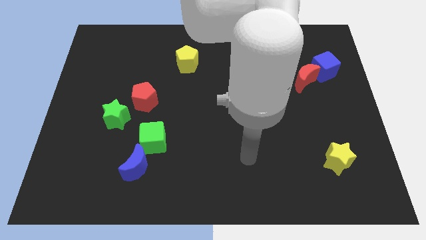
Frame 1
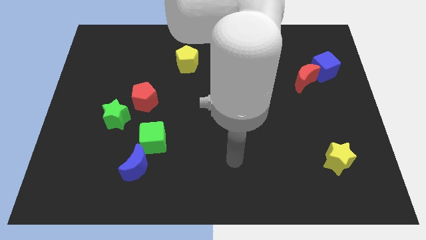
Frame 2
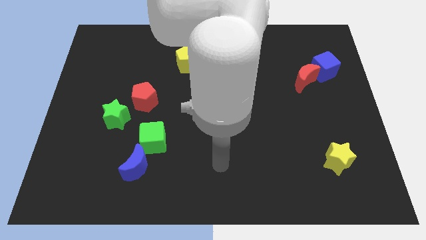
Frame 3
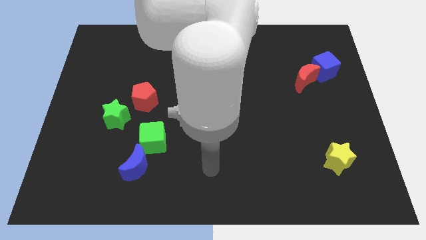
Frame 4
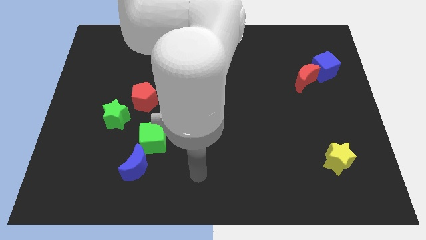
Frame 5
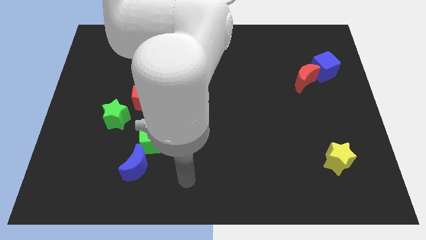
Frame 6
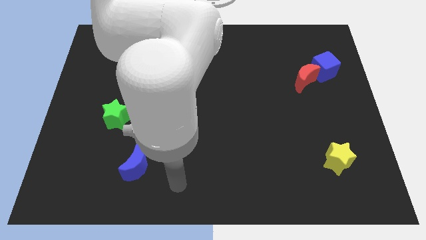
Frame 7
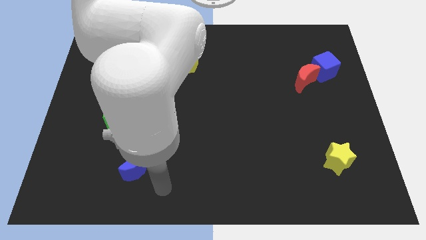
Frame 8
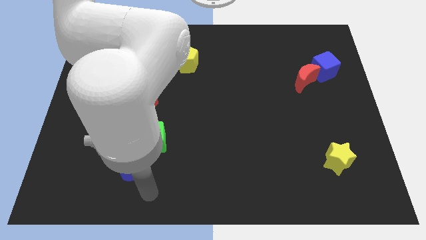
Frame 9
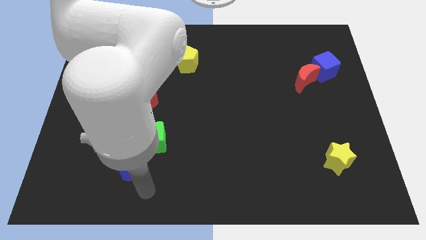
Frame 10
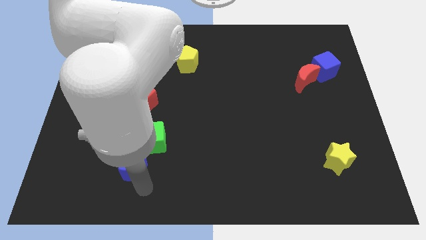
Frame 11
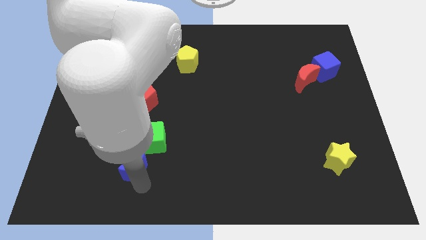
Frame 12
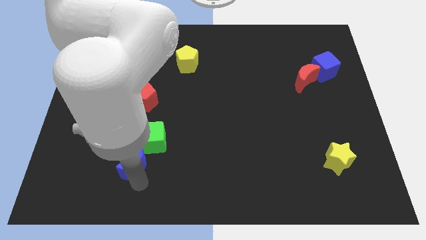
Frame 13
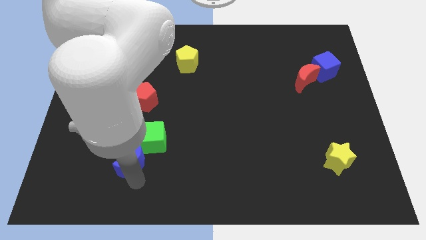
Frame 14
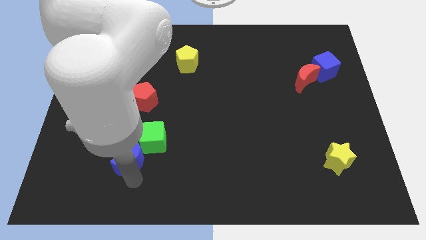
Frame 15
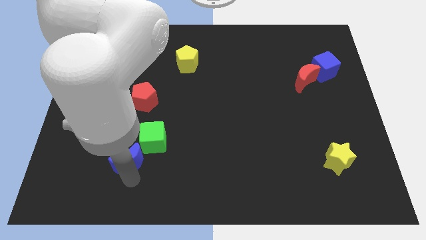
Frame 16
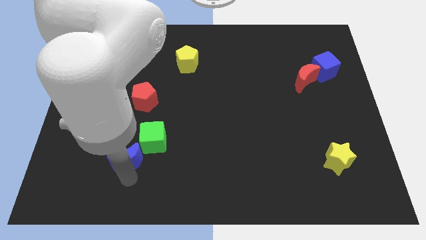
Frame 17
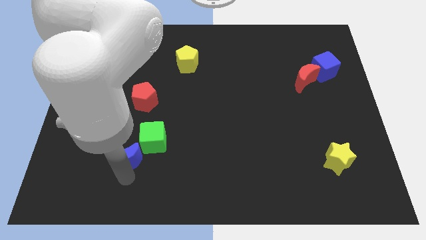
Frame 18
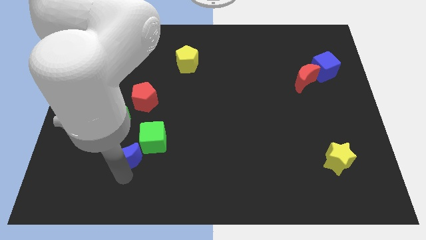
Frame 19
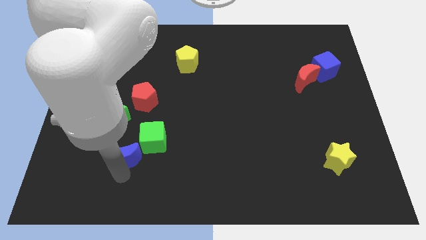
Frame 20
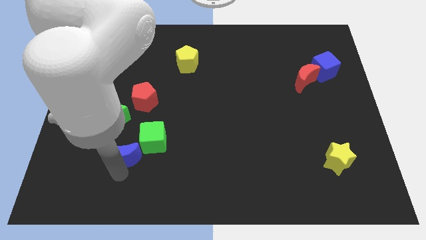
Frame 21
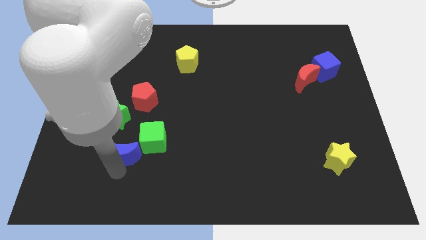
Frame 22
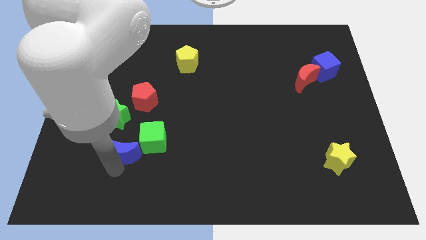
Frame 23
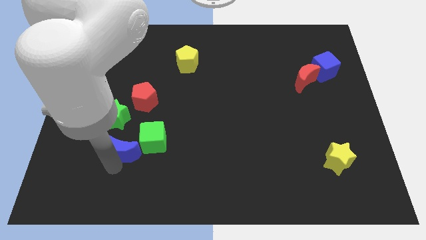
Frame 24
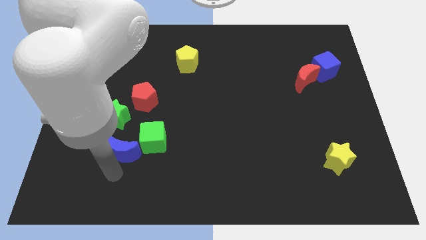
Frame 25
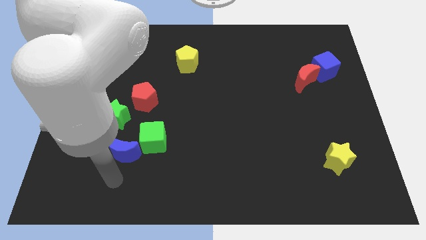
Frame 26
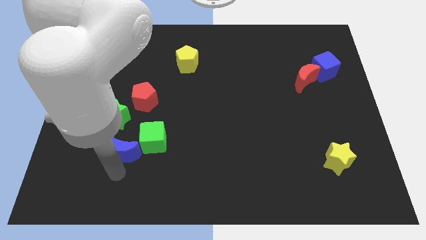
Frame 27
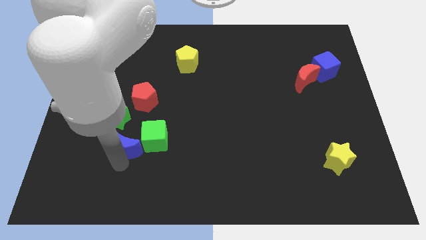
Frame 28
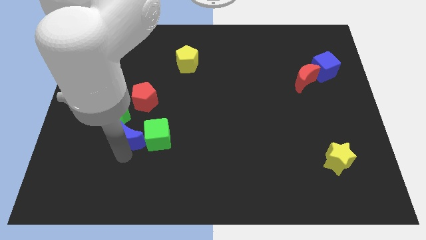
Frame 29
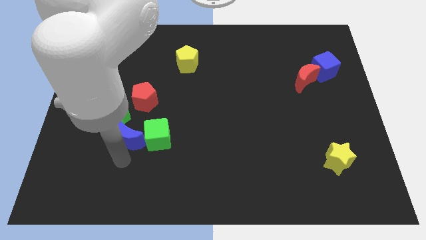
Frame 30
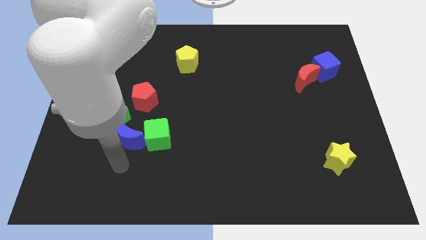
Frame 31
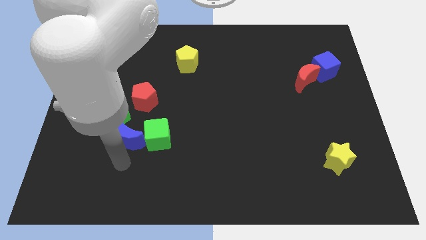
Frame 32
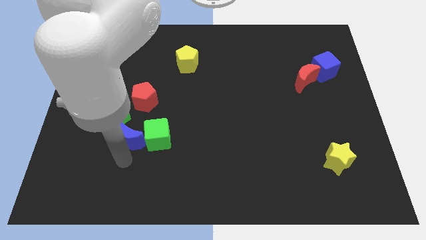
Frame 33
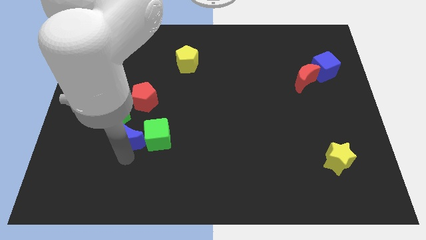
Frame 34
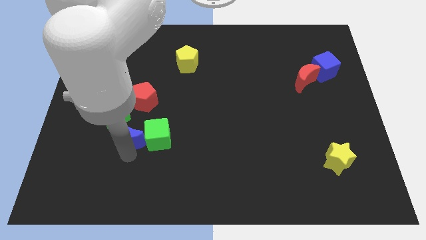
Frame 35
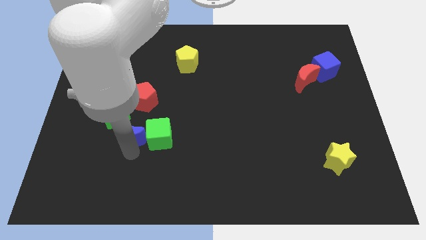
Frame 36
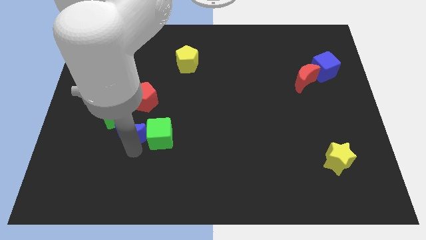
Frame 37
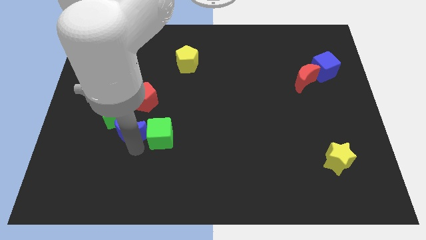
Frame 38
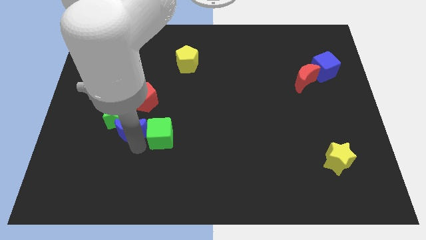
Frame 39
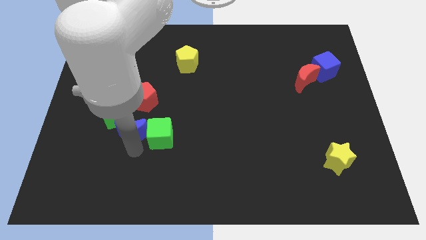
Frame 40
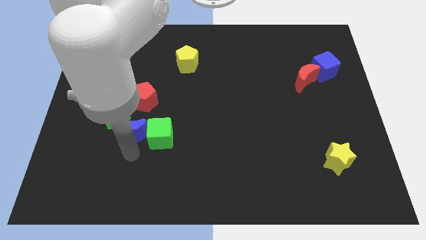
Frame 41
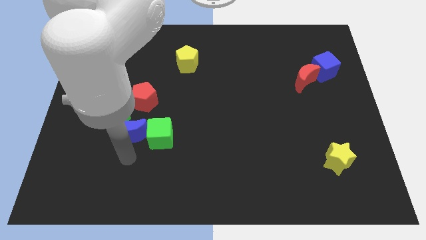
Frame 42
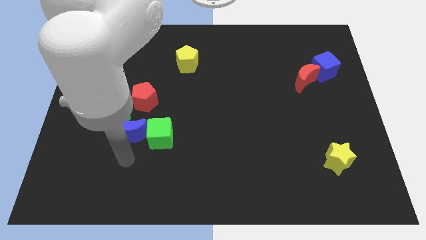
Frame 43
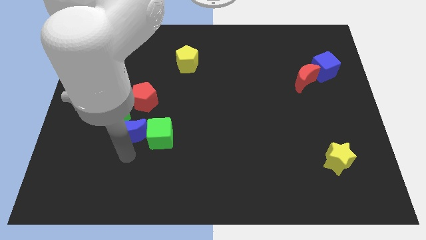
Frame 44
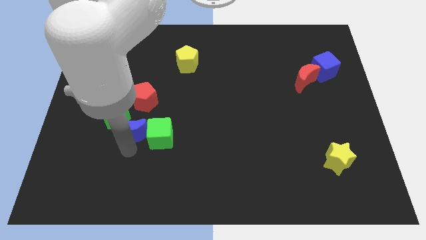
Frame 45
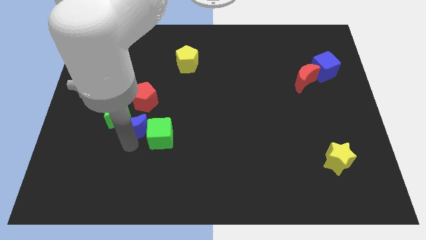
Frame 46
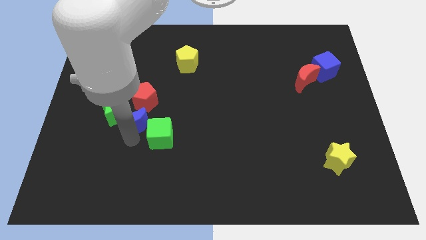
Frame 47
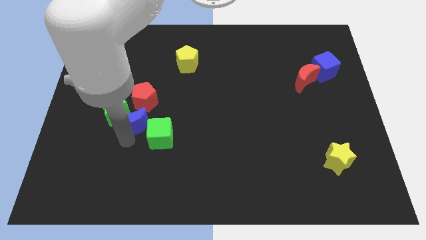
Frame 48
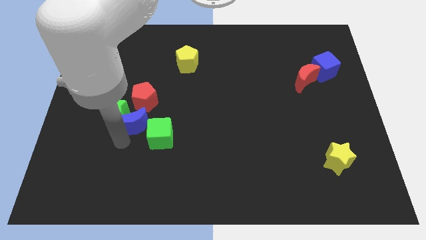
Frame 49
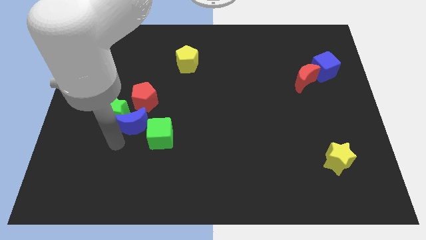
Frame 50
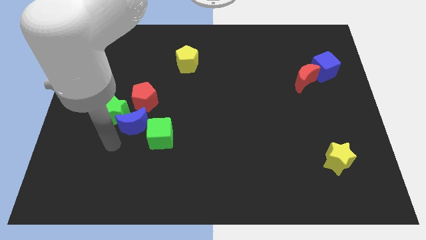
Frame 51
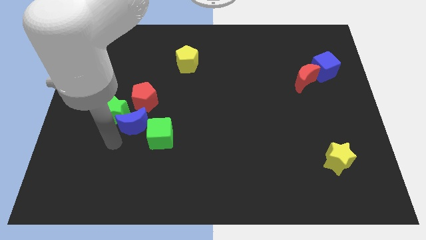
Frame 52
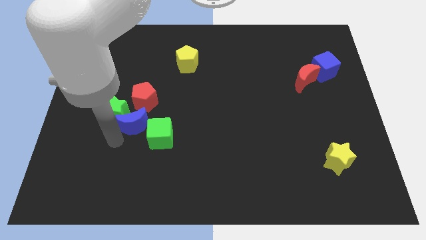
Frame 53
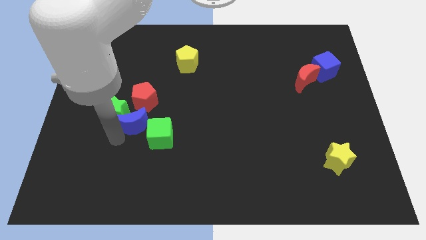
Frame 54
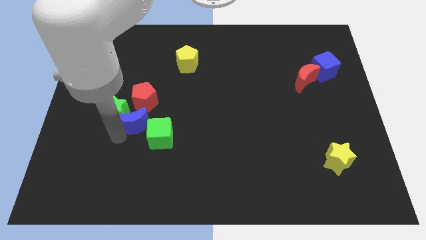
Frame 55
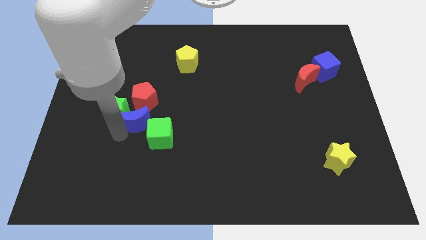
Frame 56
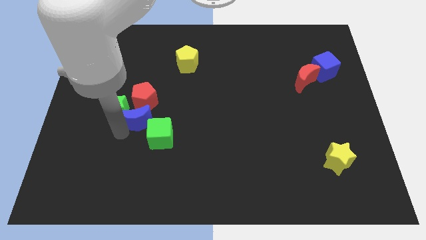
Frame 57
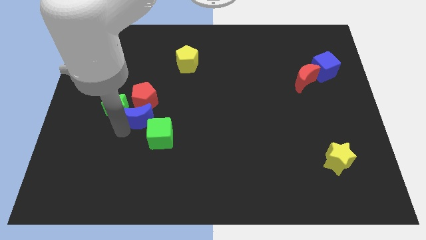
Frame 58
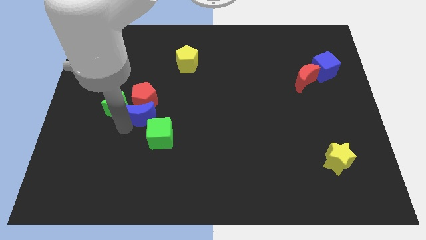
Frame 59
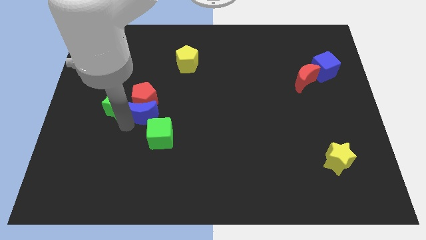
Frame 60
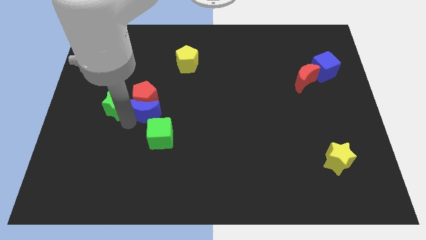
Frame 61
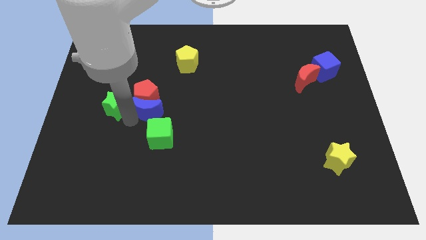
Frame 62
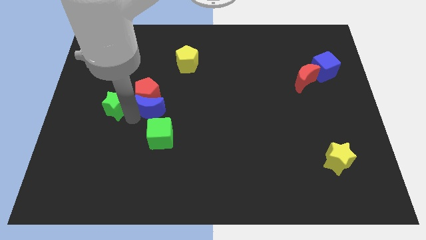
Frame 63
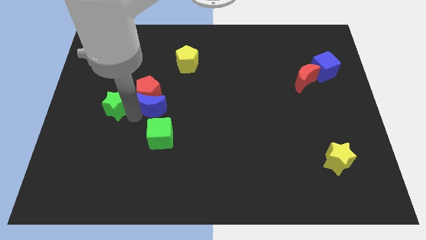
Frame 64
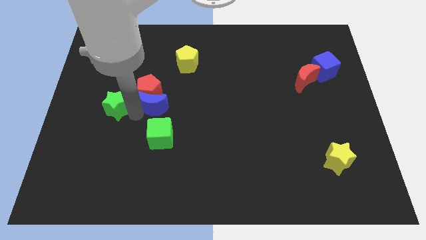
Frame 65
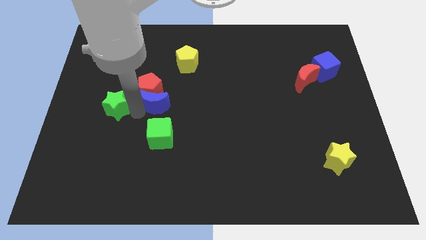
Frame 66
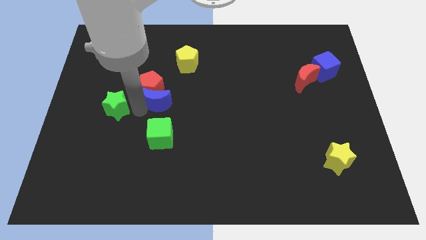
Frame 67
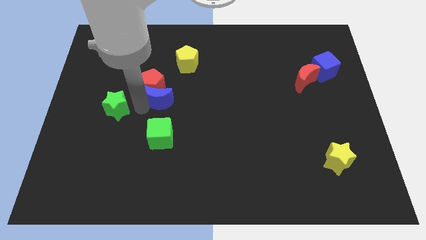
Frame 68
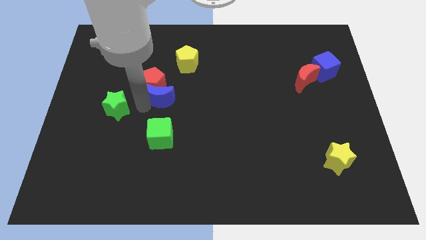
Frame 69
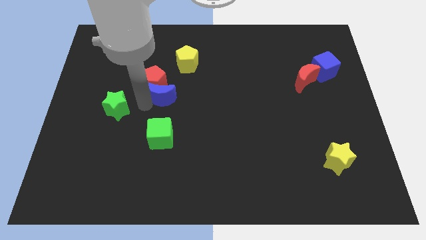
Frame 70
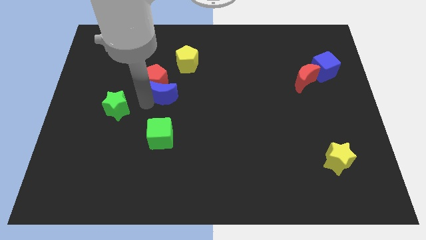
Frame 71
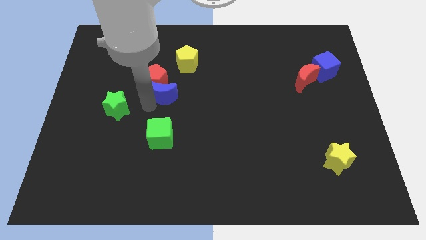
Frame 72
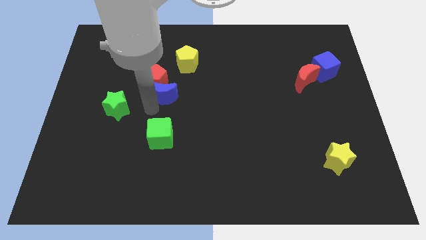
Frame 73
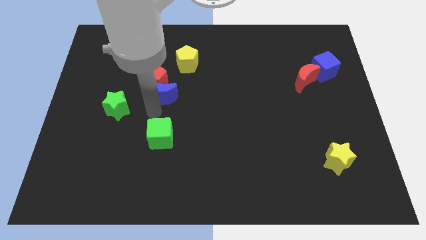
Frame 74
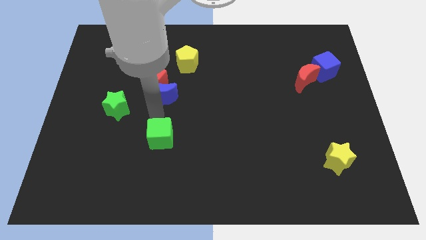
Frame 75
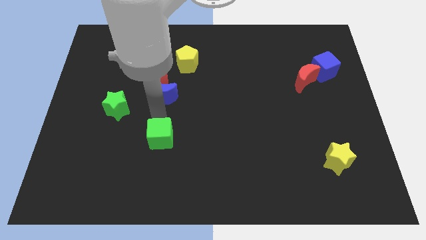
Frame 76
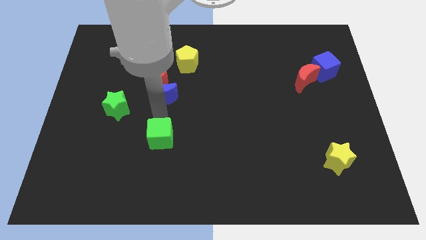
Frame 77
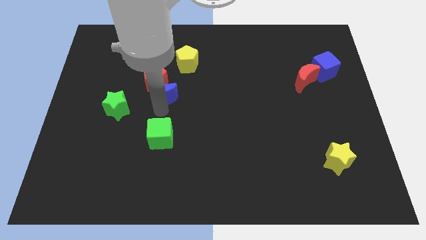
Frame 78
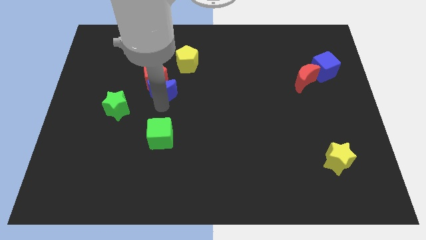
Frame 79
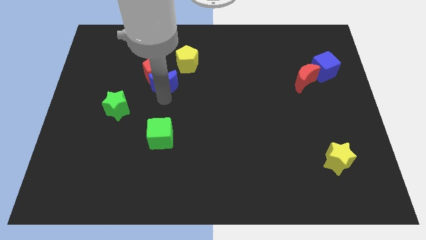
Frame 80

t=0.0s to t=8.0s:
push the blue moon up
